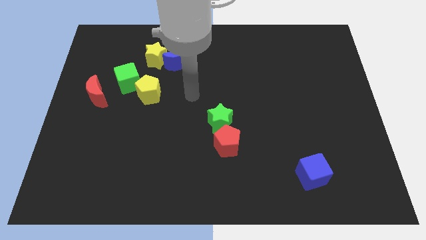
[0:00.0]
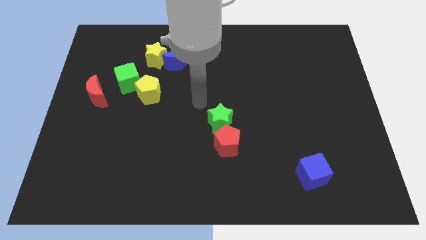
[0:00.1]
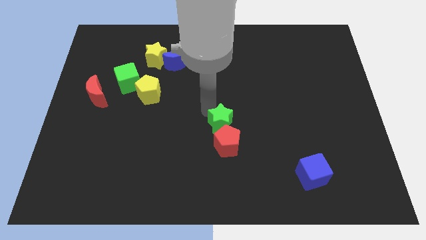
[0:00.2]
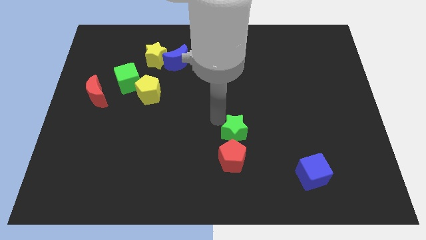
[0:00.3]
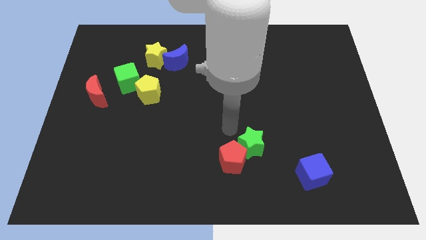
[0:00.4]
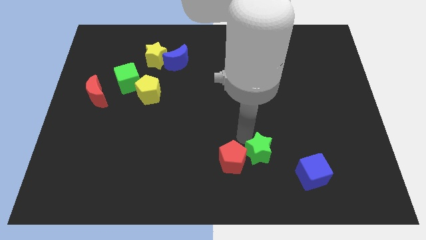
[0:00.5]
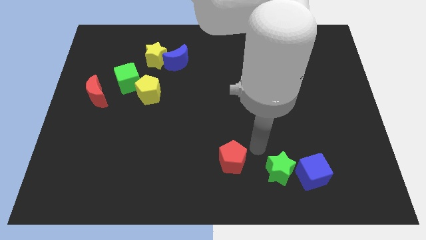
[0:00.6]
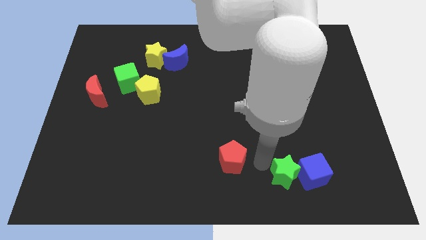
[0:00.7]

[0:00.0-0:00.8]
move the red pentagon away from the green star

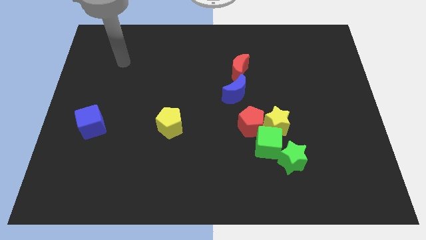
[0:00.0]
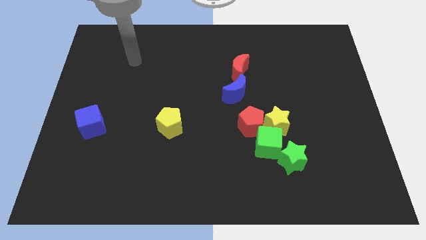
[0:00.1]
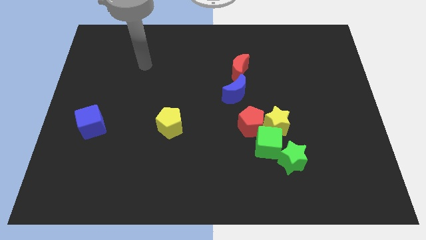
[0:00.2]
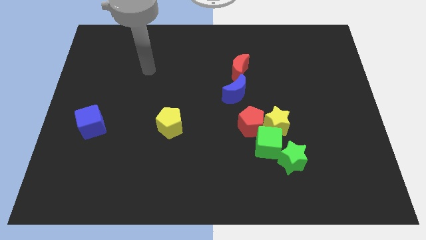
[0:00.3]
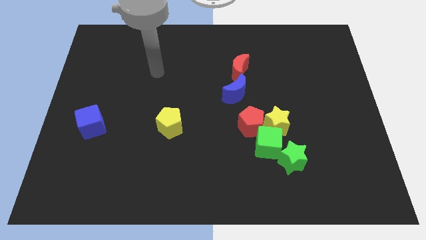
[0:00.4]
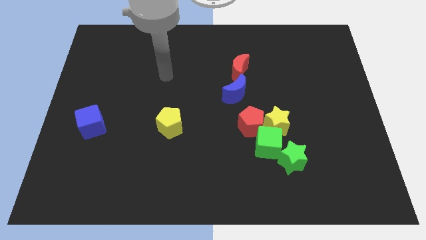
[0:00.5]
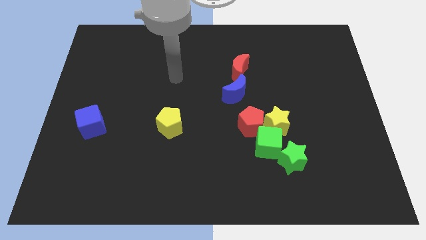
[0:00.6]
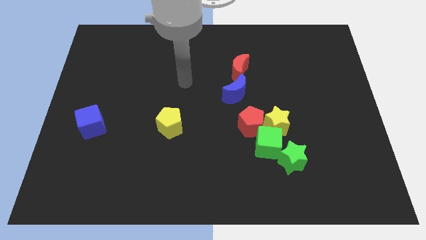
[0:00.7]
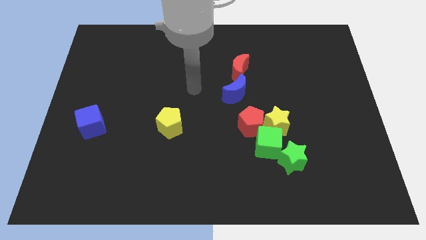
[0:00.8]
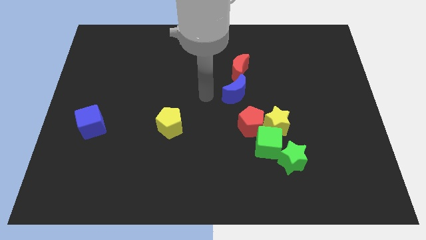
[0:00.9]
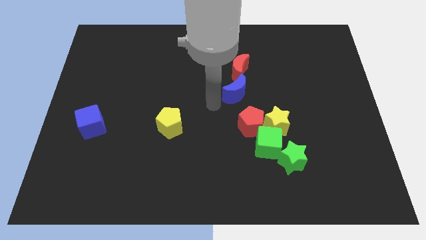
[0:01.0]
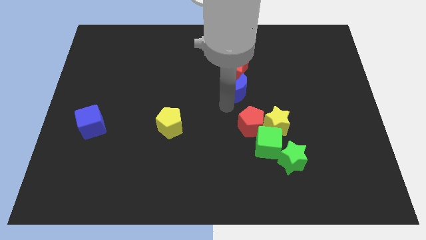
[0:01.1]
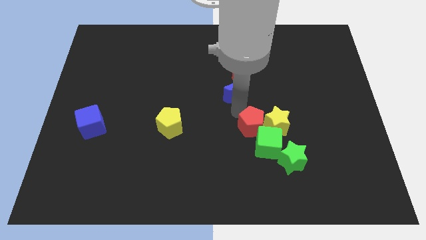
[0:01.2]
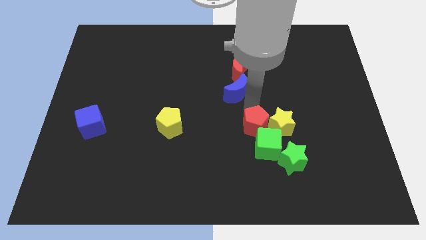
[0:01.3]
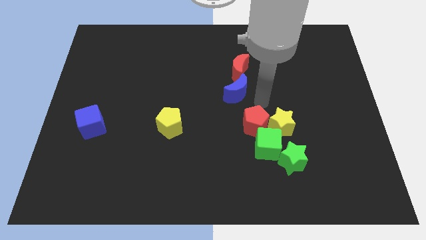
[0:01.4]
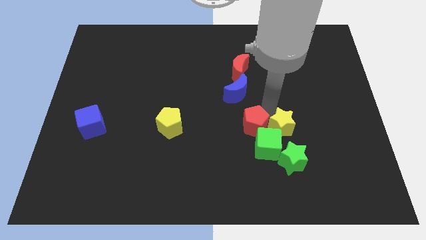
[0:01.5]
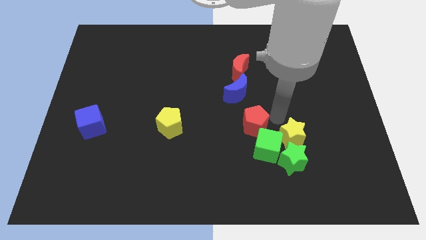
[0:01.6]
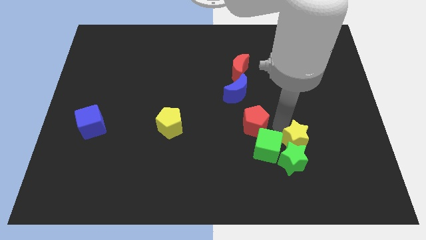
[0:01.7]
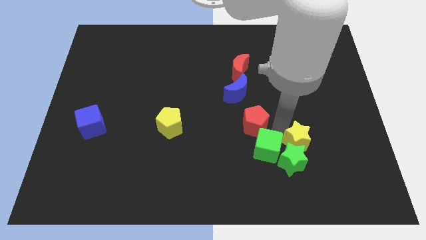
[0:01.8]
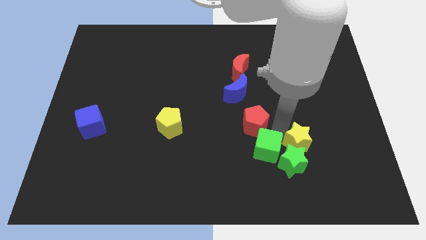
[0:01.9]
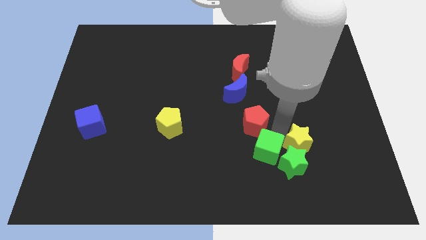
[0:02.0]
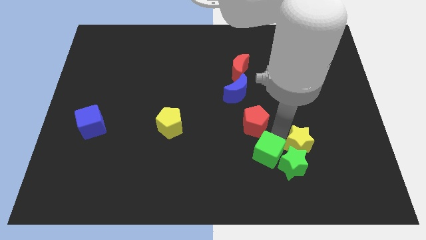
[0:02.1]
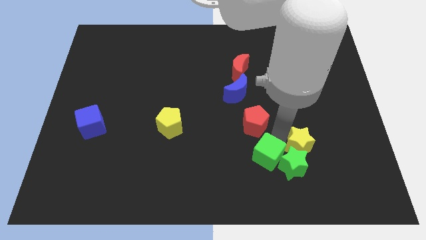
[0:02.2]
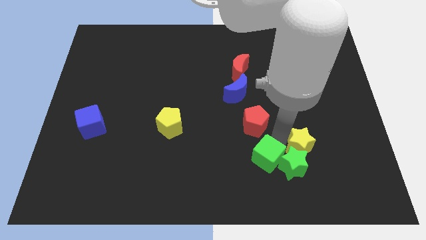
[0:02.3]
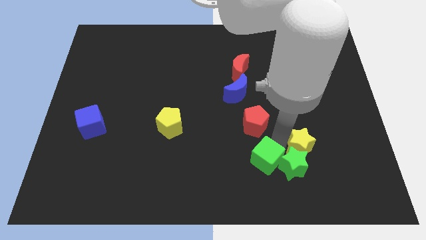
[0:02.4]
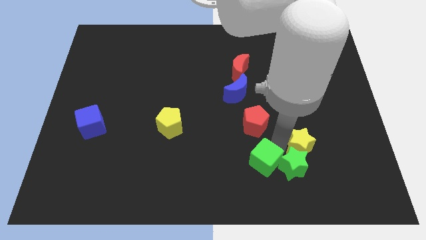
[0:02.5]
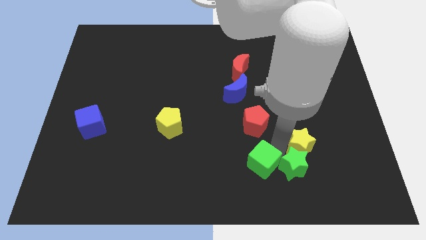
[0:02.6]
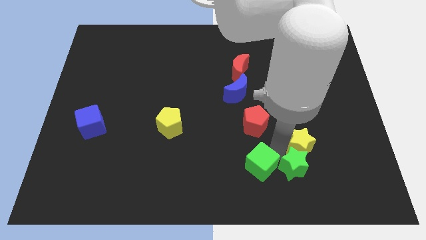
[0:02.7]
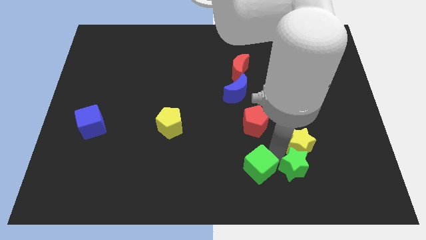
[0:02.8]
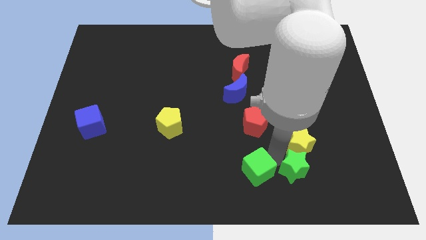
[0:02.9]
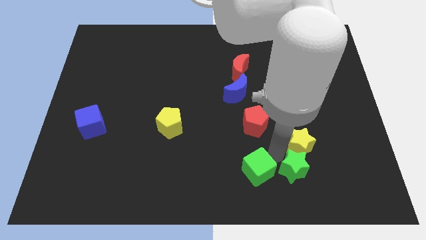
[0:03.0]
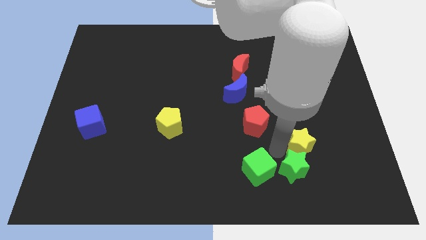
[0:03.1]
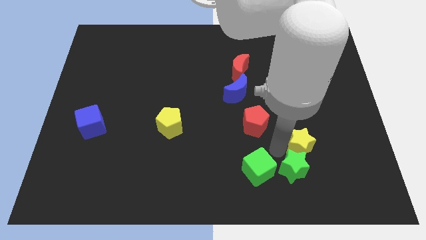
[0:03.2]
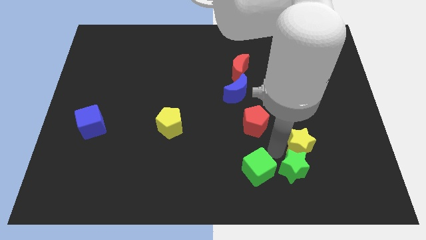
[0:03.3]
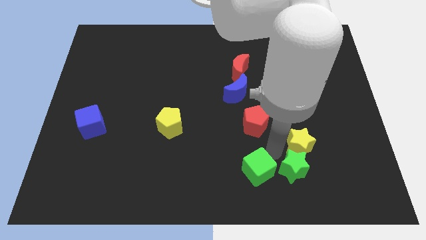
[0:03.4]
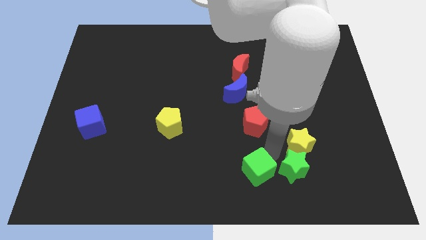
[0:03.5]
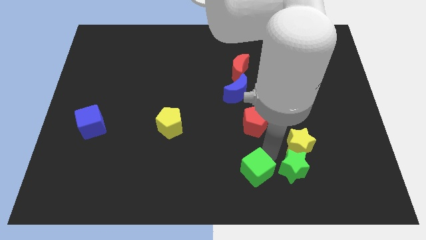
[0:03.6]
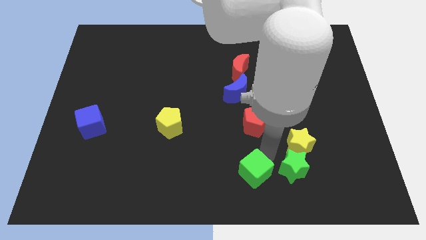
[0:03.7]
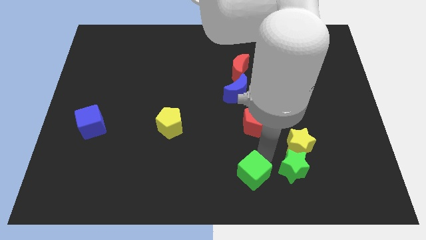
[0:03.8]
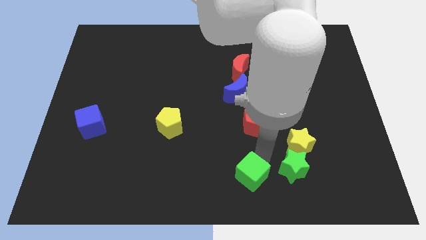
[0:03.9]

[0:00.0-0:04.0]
move the green cube away from the clump

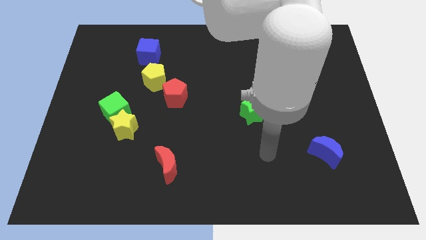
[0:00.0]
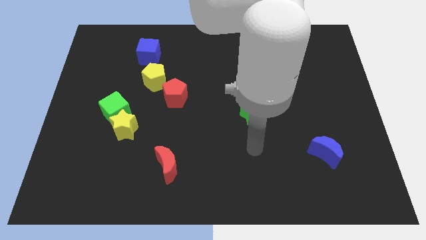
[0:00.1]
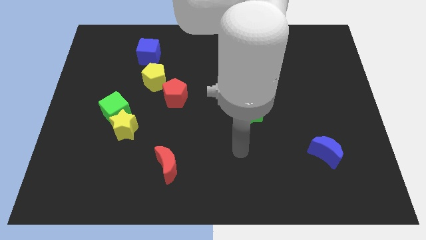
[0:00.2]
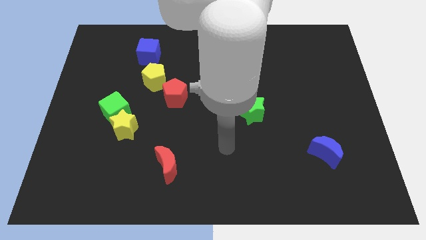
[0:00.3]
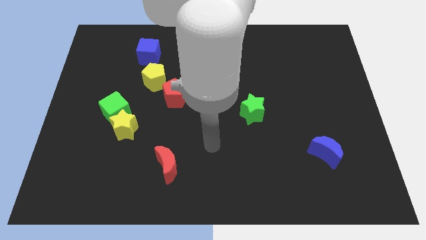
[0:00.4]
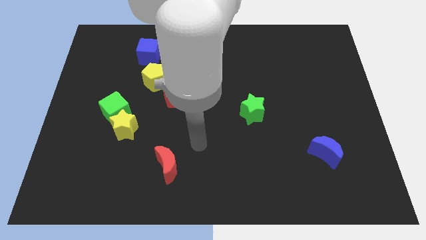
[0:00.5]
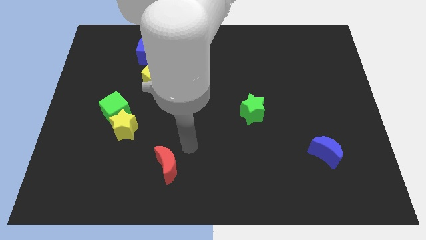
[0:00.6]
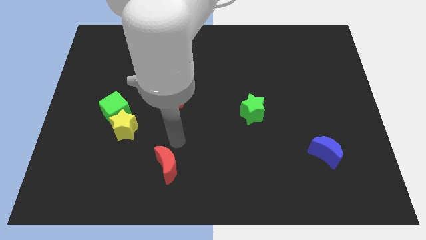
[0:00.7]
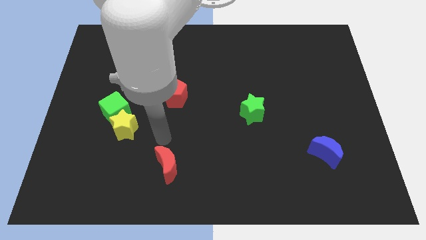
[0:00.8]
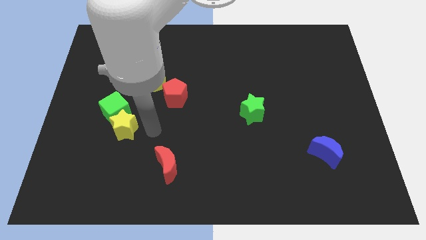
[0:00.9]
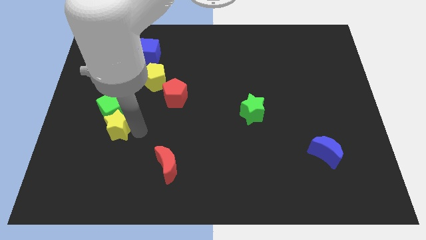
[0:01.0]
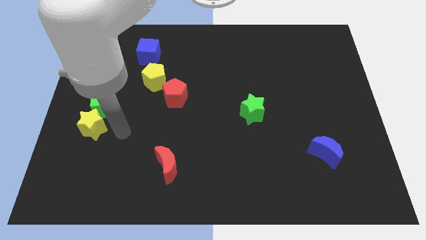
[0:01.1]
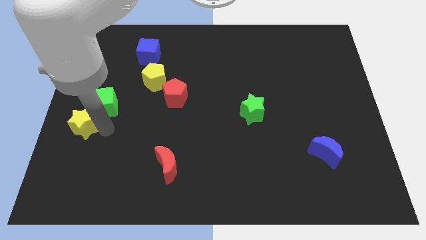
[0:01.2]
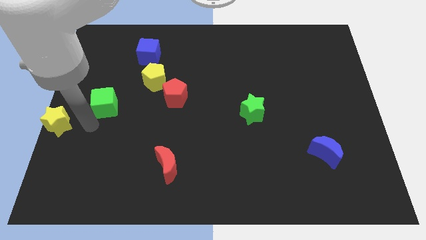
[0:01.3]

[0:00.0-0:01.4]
move the green cube away from the yellow star

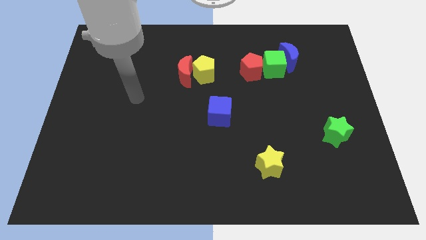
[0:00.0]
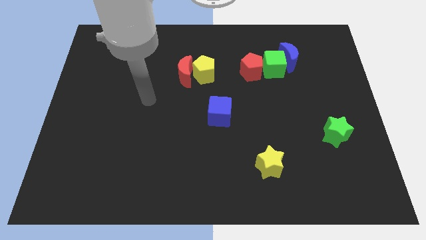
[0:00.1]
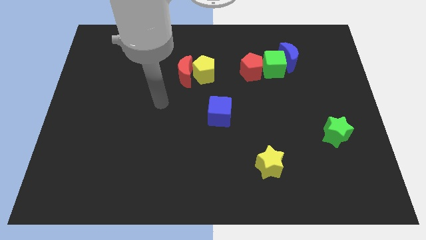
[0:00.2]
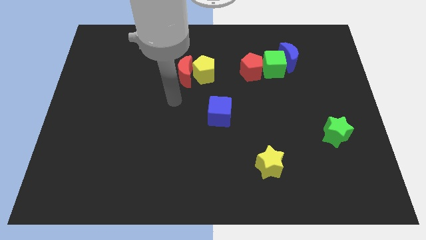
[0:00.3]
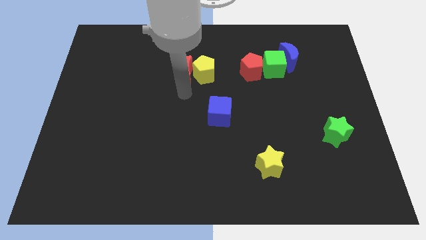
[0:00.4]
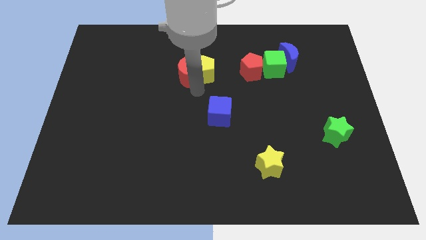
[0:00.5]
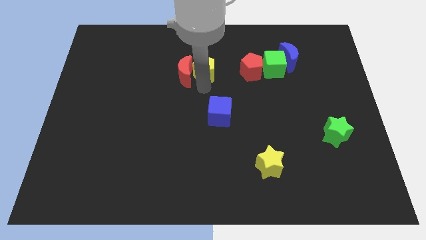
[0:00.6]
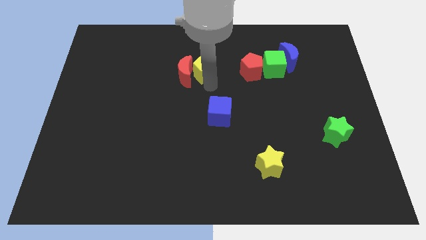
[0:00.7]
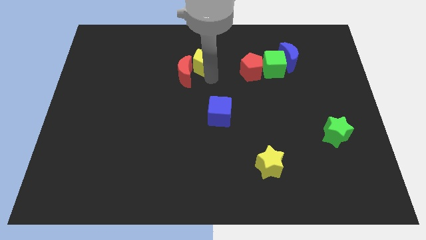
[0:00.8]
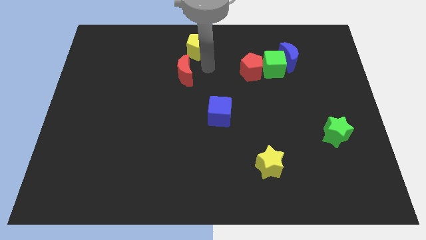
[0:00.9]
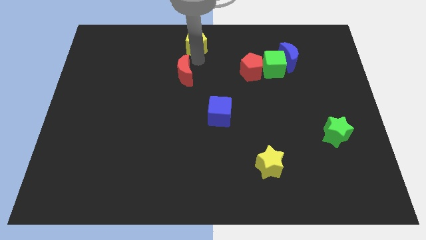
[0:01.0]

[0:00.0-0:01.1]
separate the red moon from the yellow pentagon

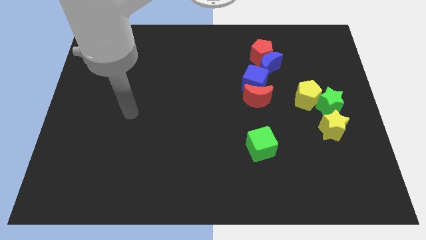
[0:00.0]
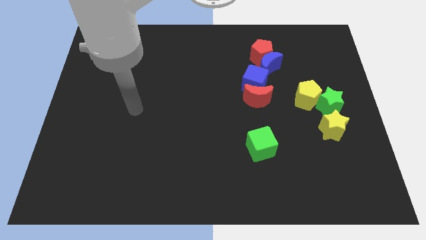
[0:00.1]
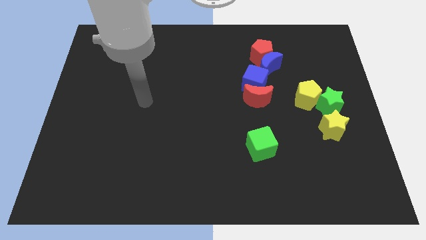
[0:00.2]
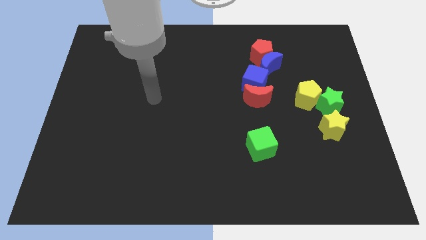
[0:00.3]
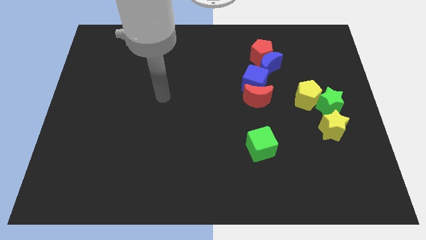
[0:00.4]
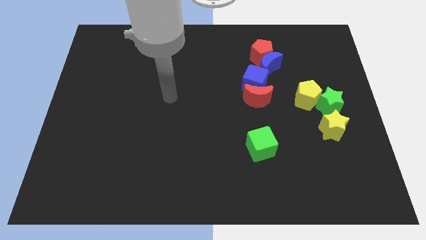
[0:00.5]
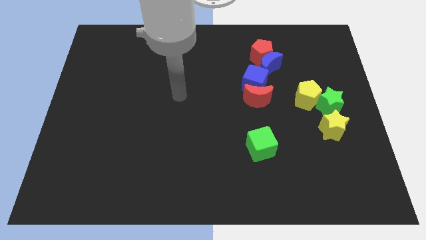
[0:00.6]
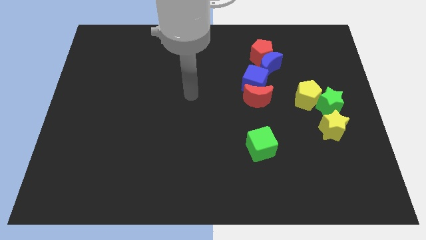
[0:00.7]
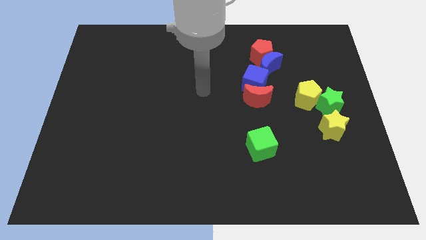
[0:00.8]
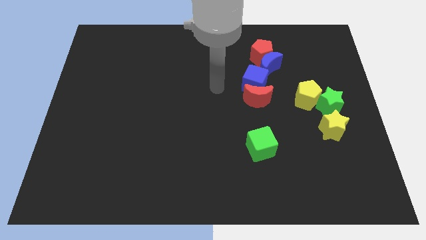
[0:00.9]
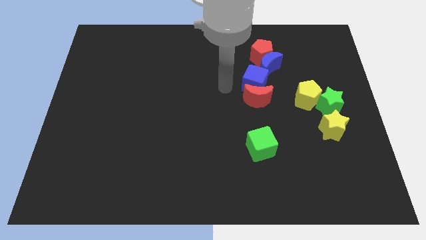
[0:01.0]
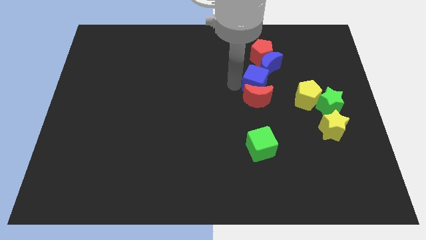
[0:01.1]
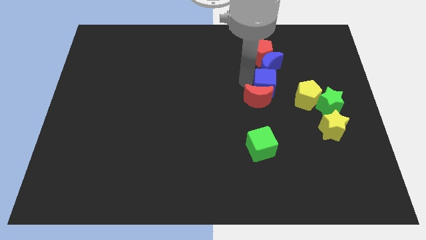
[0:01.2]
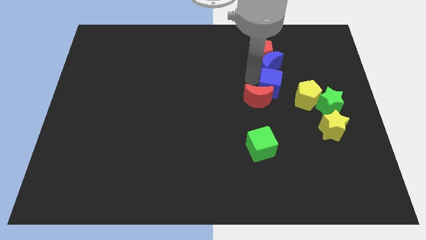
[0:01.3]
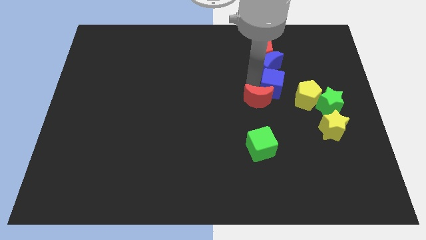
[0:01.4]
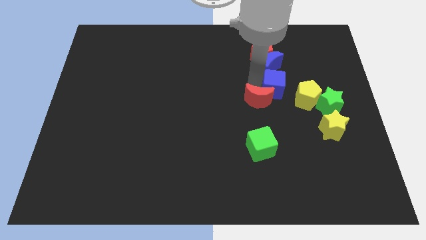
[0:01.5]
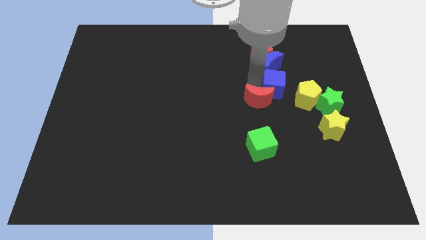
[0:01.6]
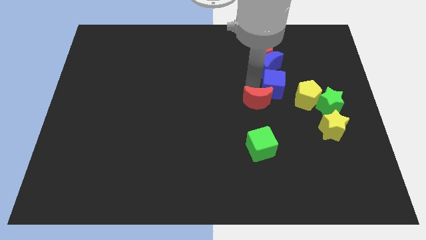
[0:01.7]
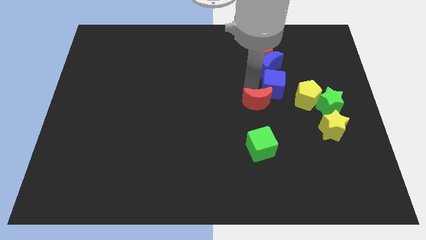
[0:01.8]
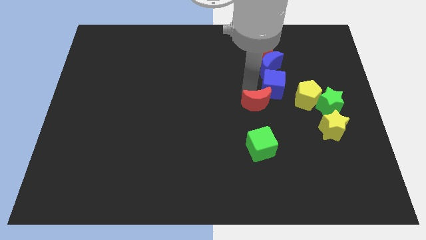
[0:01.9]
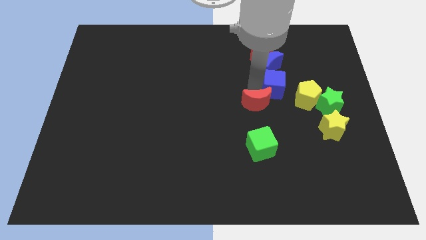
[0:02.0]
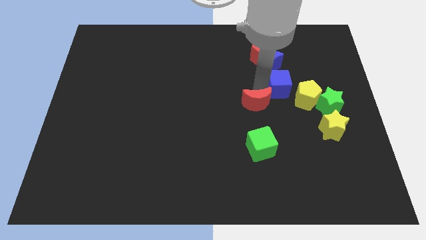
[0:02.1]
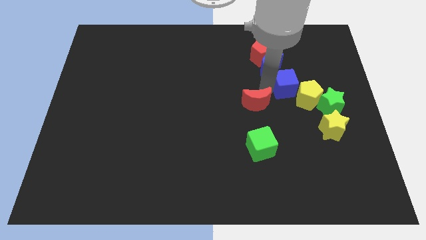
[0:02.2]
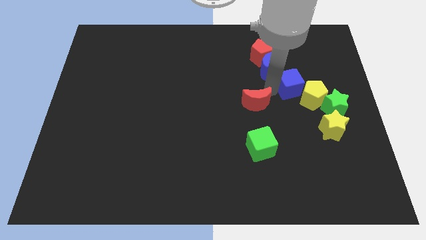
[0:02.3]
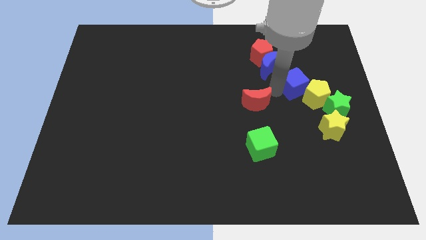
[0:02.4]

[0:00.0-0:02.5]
separate the red moon from the blue cube
